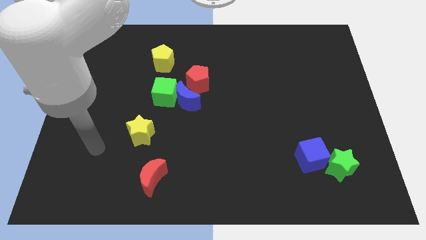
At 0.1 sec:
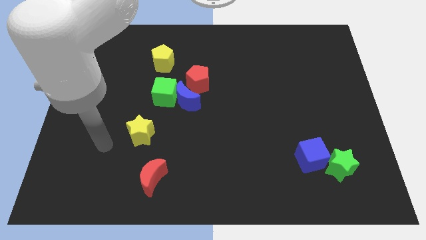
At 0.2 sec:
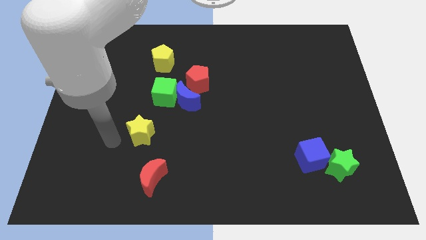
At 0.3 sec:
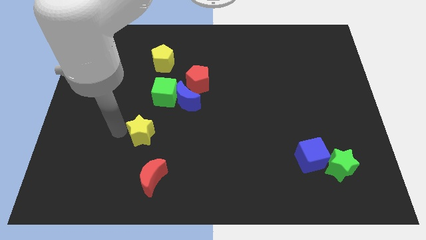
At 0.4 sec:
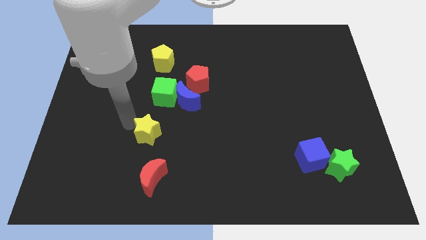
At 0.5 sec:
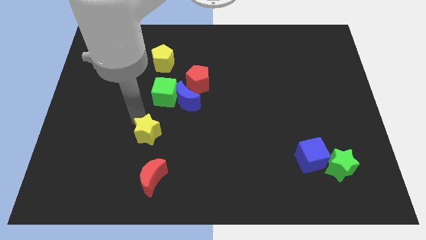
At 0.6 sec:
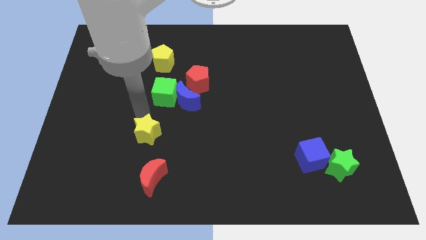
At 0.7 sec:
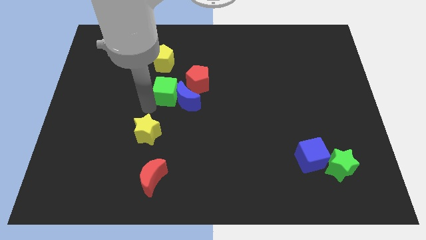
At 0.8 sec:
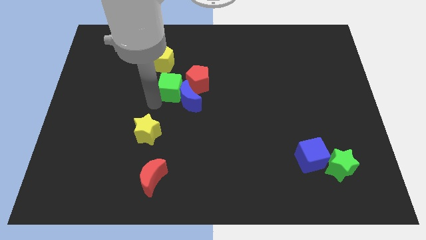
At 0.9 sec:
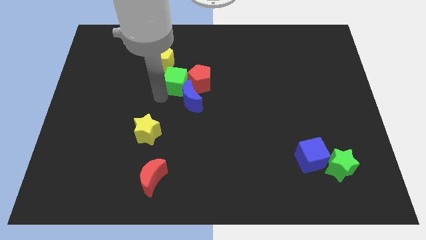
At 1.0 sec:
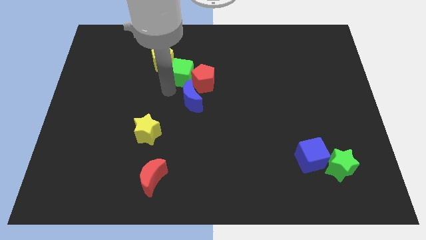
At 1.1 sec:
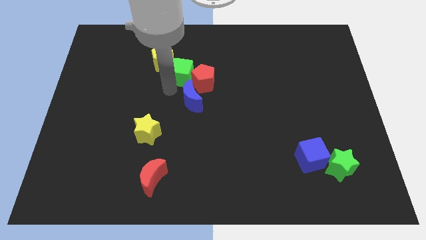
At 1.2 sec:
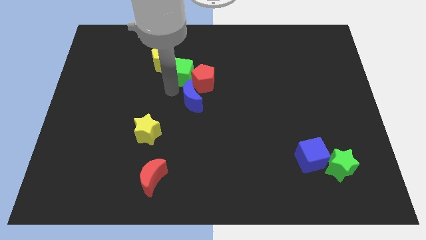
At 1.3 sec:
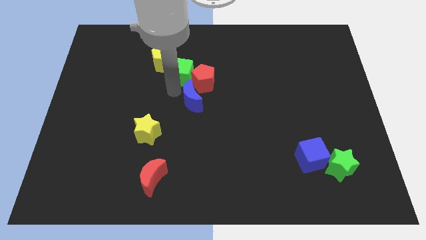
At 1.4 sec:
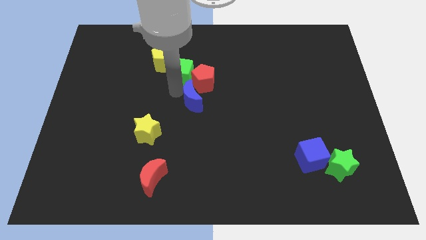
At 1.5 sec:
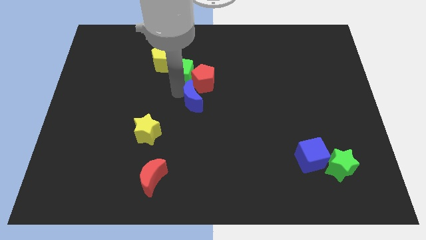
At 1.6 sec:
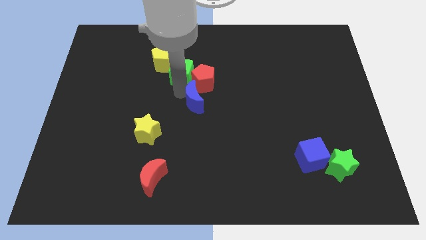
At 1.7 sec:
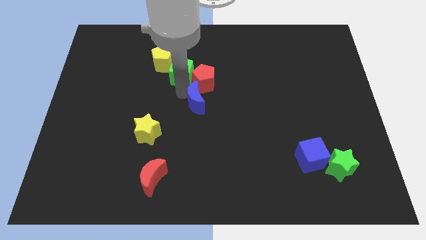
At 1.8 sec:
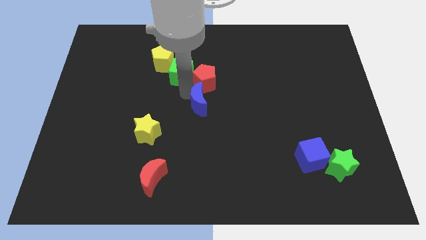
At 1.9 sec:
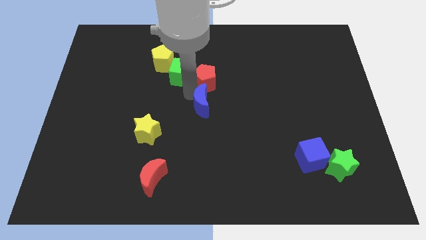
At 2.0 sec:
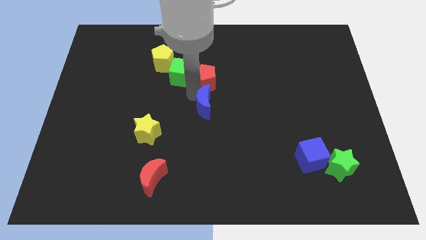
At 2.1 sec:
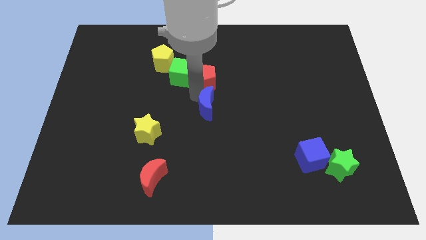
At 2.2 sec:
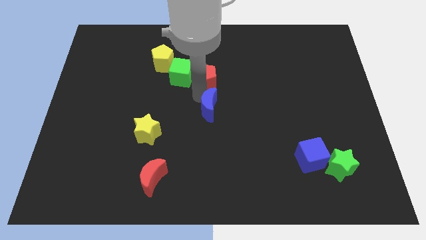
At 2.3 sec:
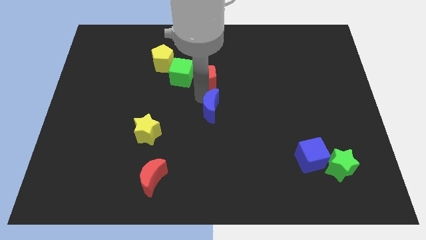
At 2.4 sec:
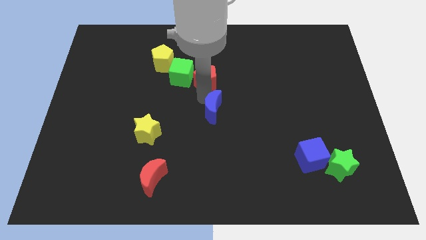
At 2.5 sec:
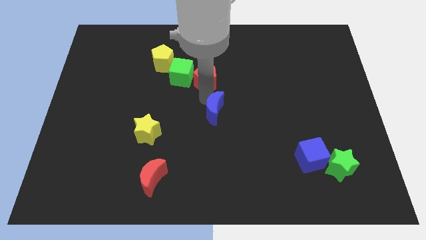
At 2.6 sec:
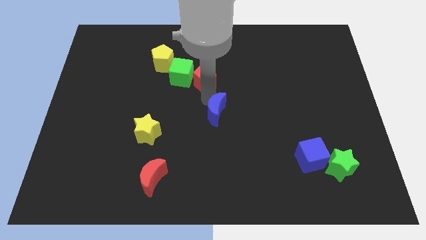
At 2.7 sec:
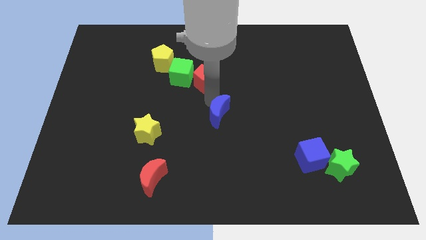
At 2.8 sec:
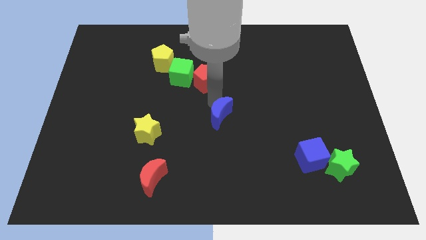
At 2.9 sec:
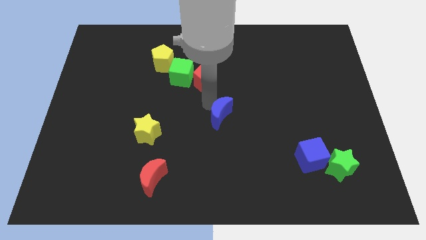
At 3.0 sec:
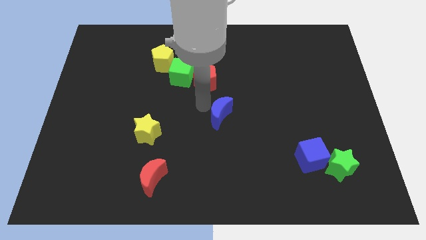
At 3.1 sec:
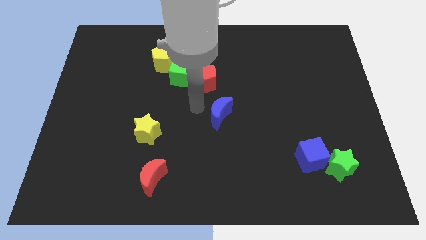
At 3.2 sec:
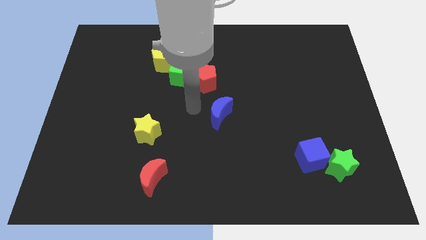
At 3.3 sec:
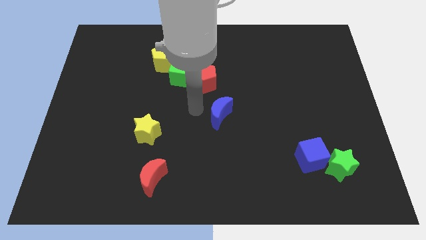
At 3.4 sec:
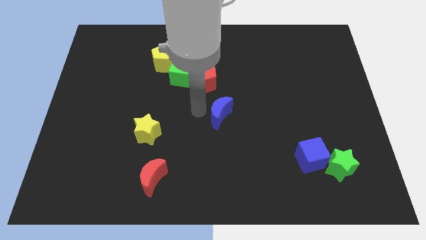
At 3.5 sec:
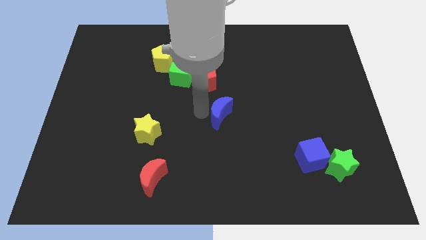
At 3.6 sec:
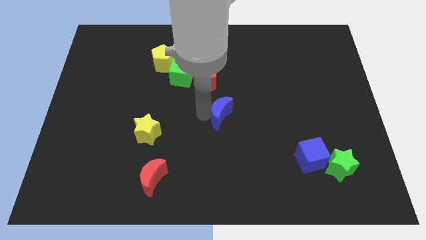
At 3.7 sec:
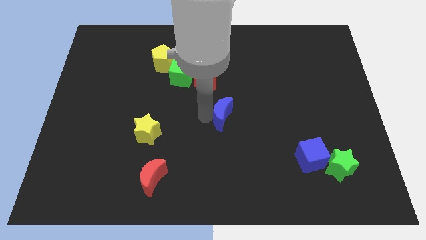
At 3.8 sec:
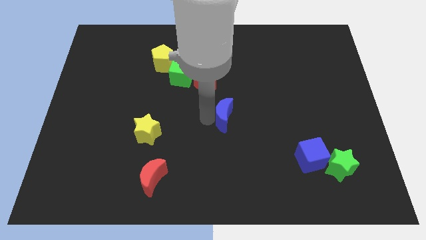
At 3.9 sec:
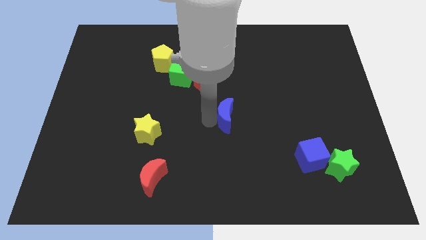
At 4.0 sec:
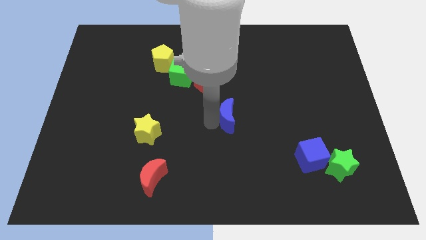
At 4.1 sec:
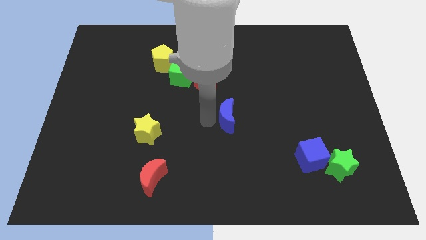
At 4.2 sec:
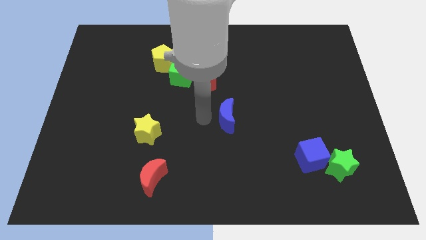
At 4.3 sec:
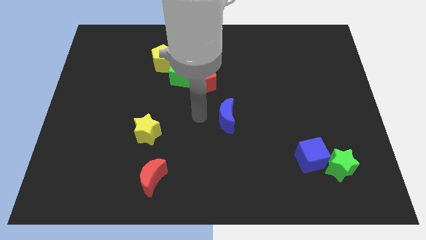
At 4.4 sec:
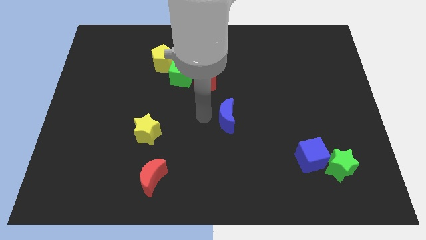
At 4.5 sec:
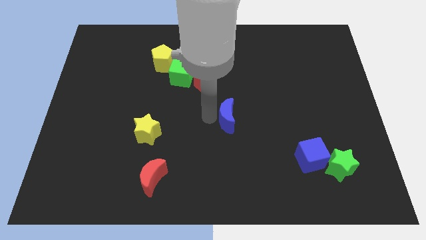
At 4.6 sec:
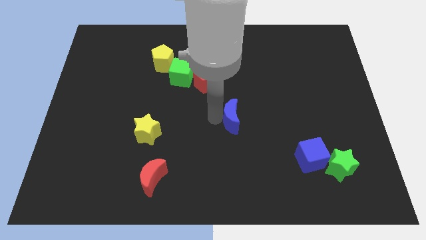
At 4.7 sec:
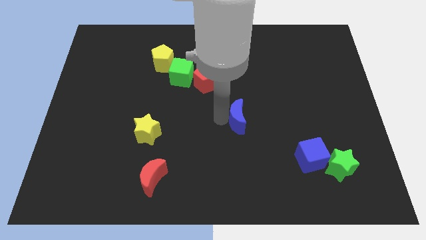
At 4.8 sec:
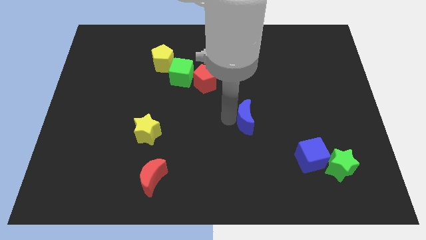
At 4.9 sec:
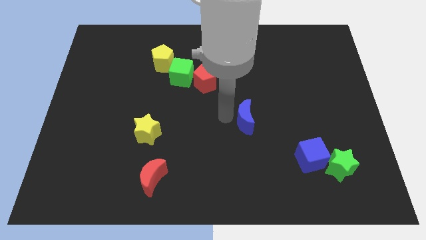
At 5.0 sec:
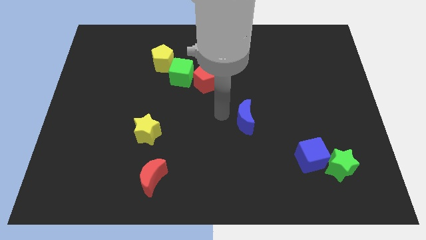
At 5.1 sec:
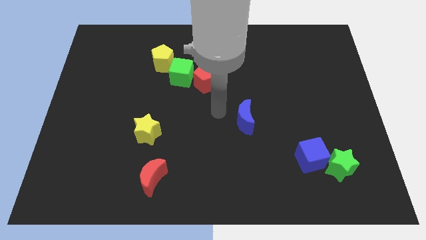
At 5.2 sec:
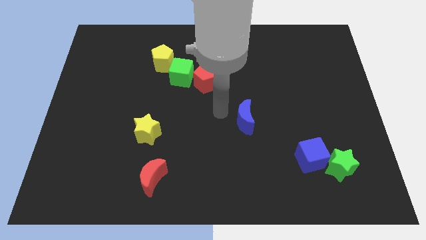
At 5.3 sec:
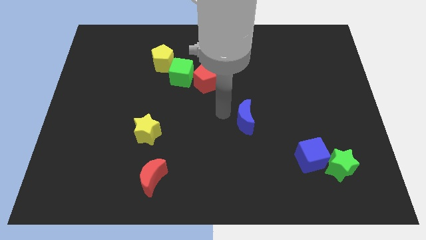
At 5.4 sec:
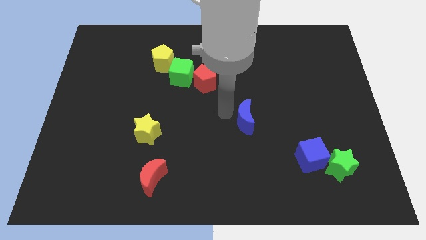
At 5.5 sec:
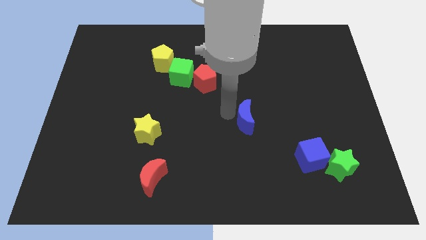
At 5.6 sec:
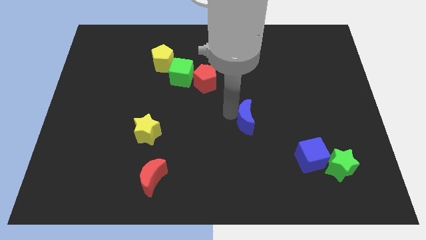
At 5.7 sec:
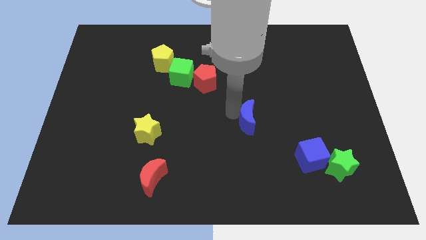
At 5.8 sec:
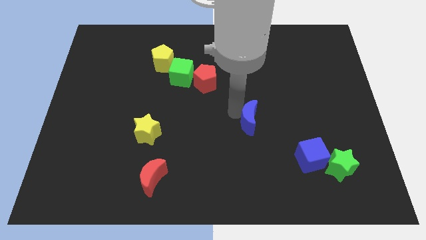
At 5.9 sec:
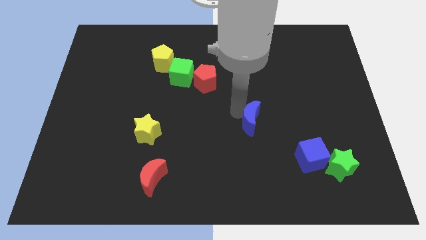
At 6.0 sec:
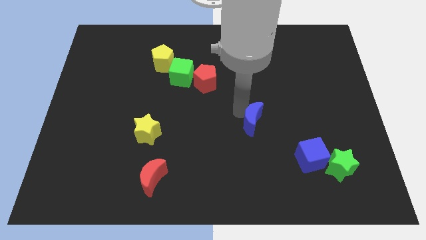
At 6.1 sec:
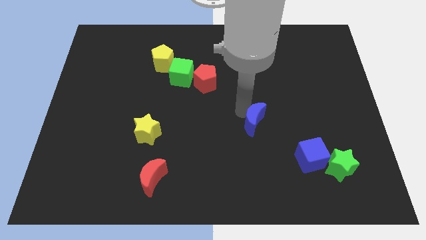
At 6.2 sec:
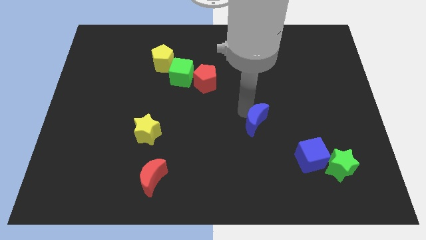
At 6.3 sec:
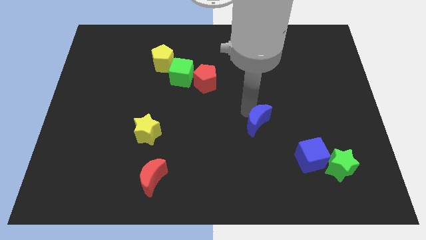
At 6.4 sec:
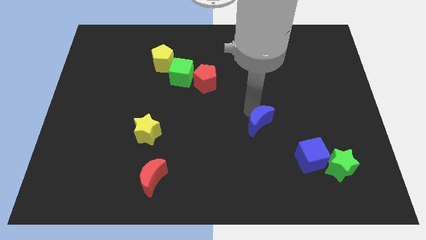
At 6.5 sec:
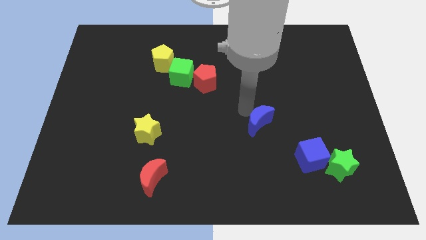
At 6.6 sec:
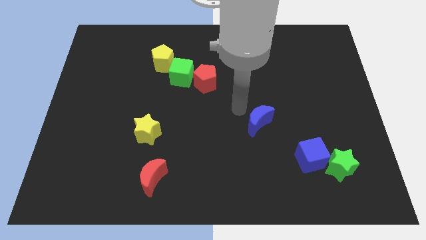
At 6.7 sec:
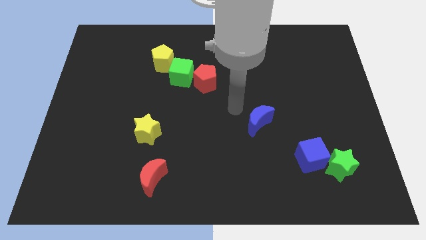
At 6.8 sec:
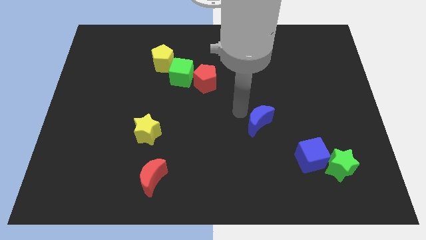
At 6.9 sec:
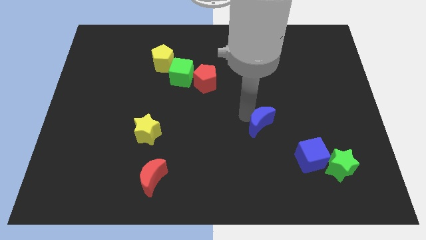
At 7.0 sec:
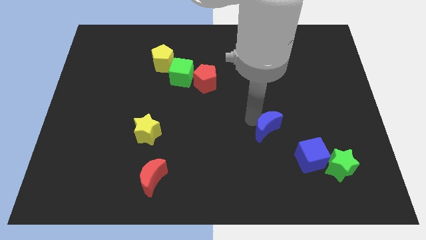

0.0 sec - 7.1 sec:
put the blue moon diagonally up and to the left of the blue cube
